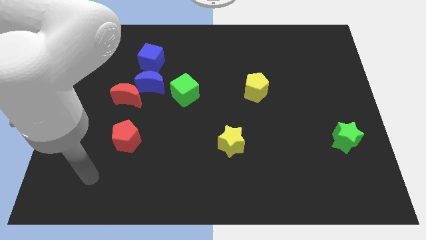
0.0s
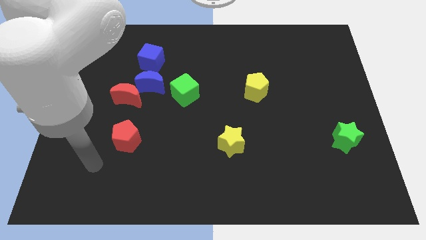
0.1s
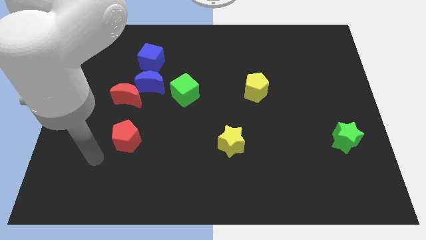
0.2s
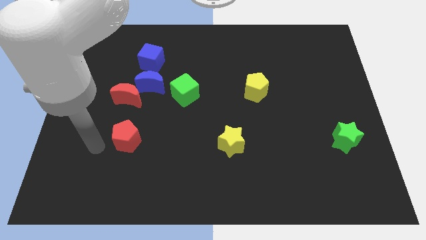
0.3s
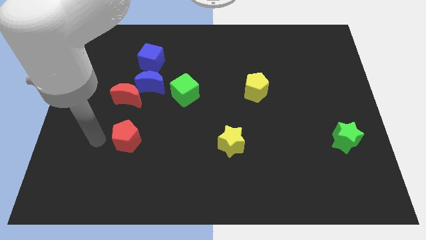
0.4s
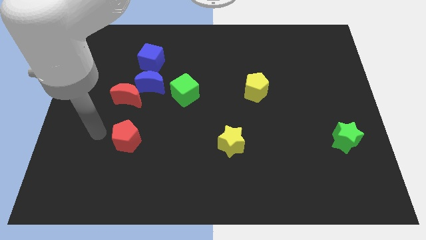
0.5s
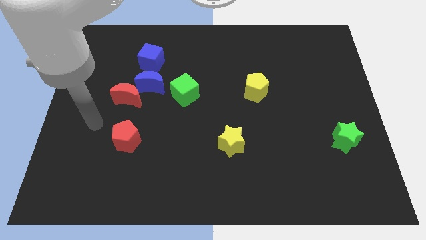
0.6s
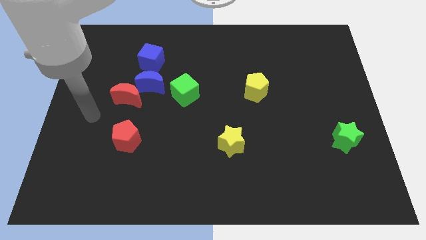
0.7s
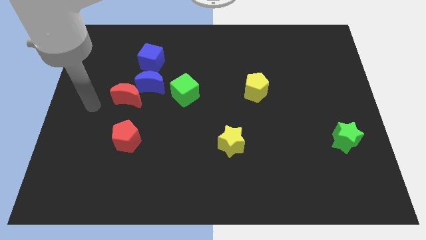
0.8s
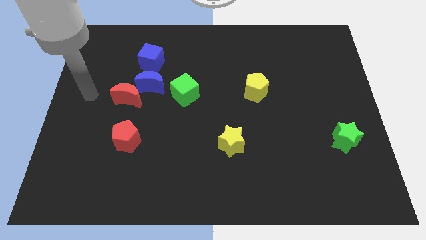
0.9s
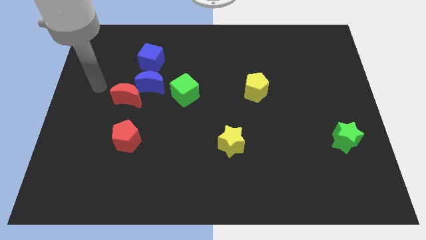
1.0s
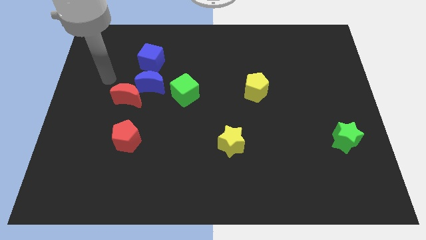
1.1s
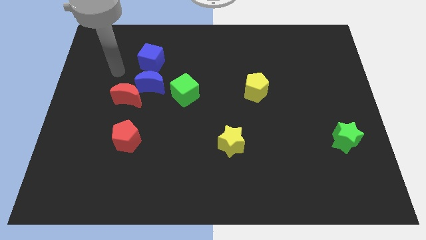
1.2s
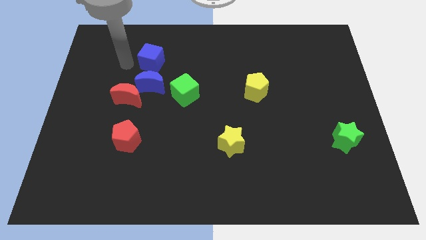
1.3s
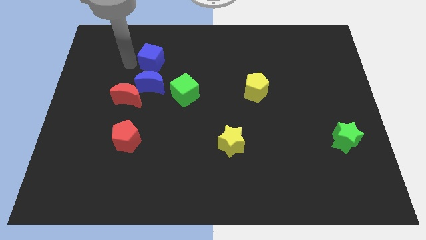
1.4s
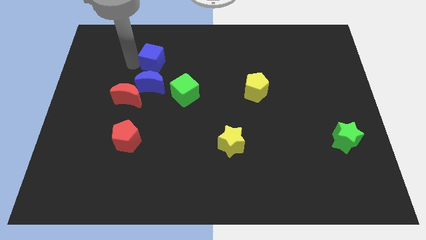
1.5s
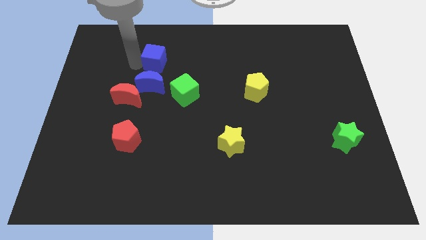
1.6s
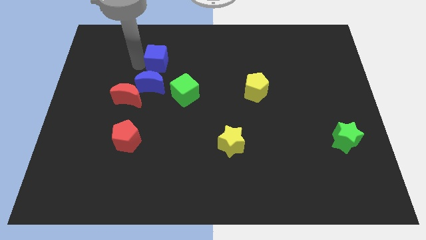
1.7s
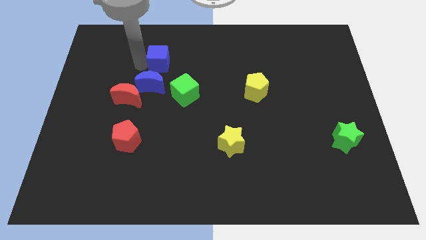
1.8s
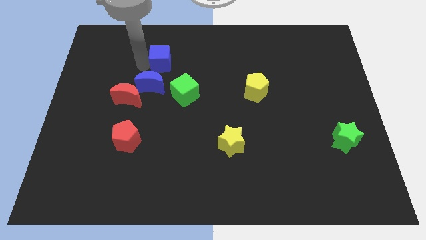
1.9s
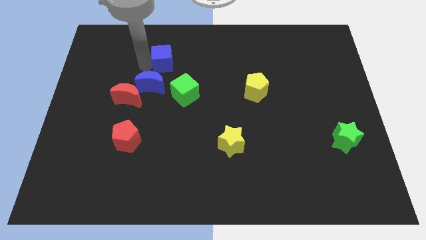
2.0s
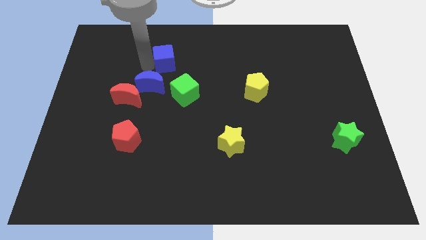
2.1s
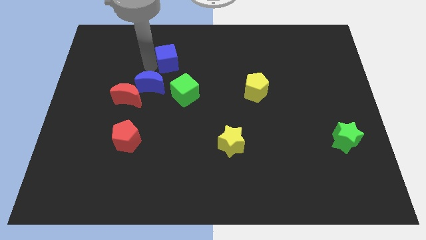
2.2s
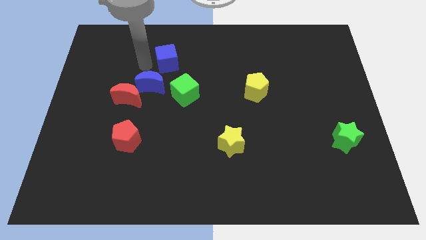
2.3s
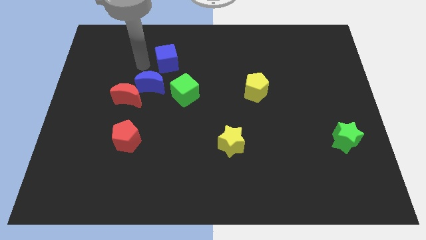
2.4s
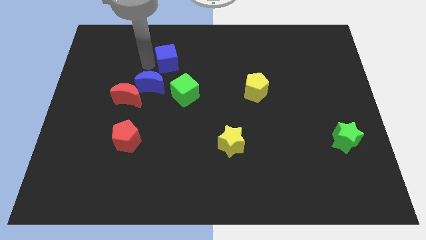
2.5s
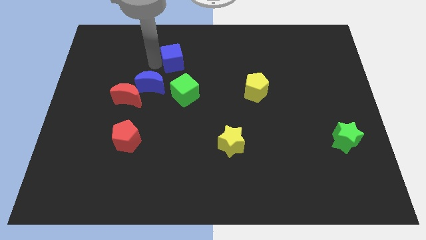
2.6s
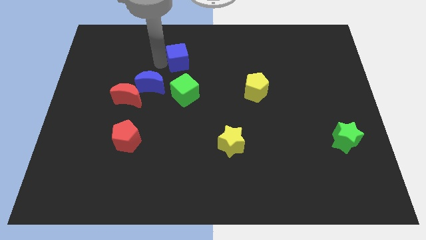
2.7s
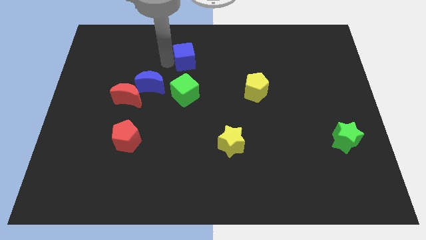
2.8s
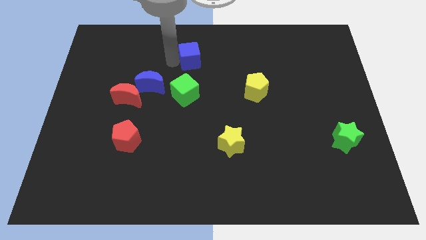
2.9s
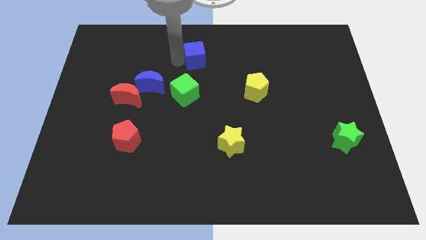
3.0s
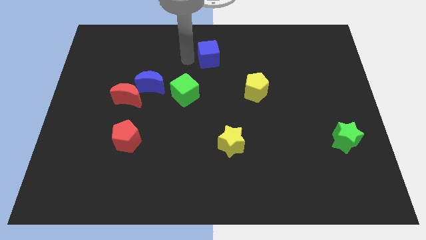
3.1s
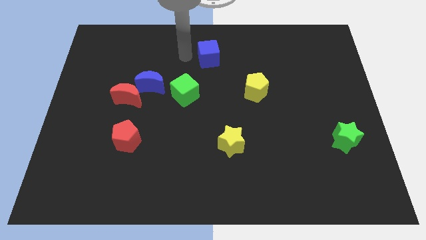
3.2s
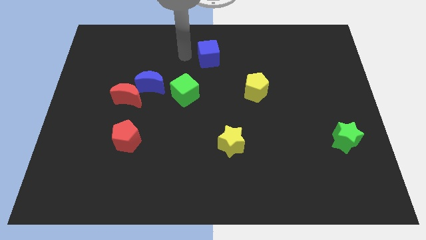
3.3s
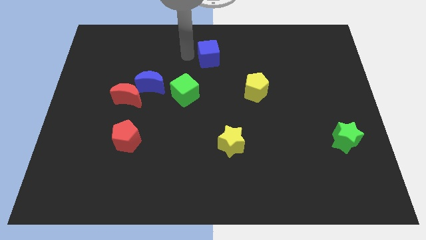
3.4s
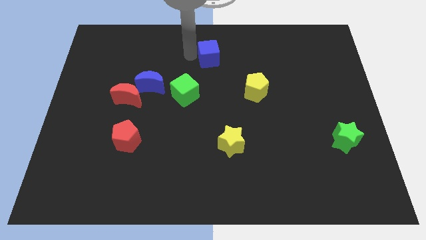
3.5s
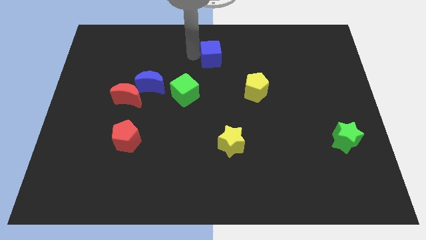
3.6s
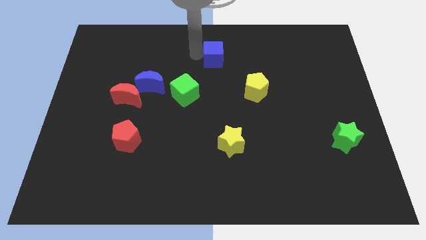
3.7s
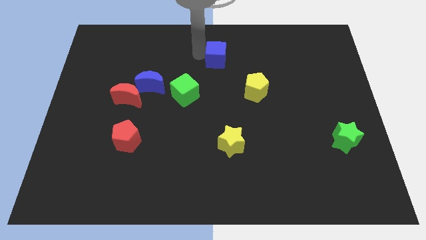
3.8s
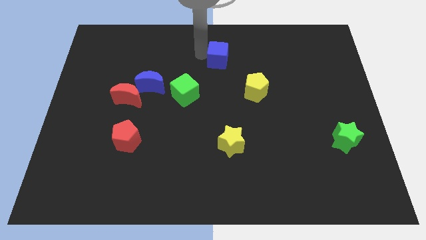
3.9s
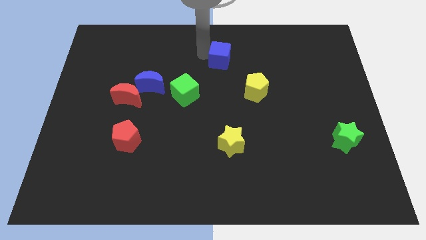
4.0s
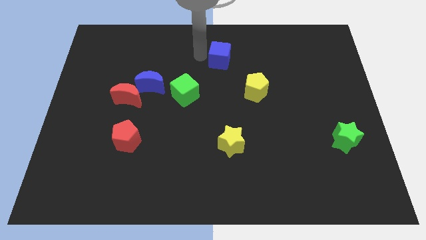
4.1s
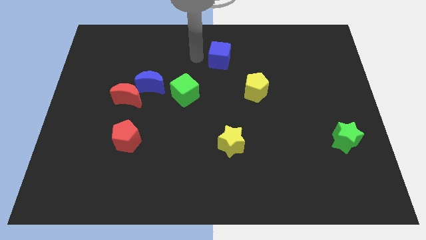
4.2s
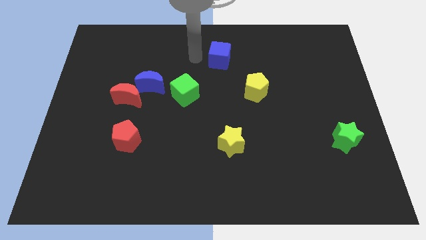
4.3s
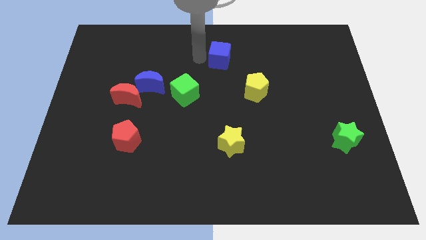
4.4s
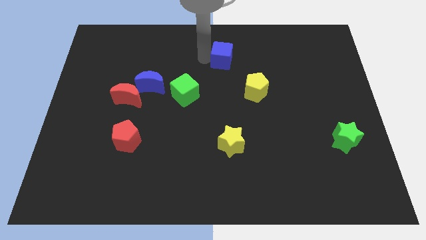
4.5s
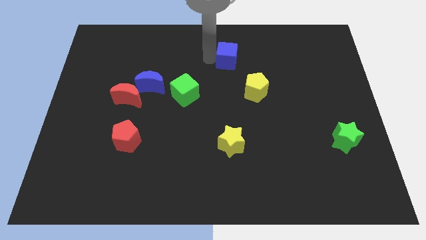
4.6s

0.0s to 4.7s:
push the blue cube to the right

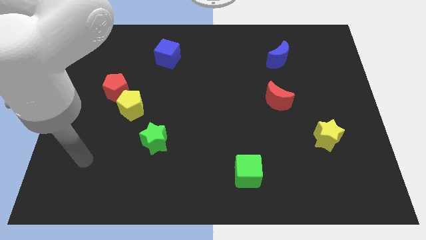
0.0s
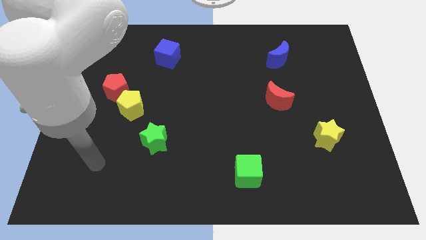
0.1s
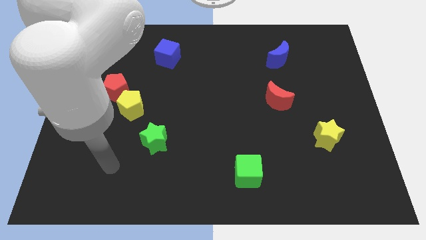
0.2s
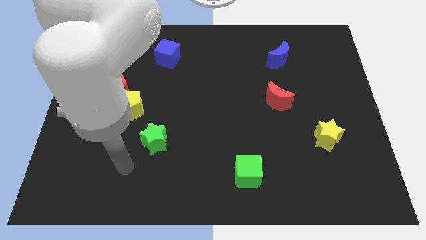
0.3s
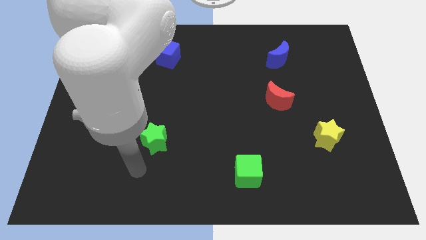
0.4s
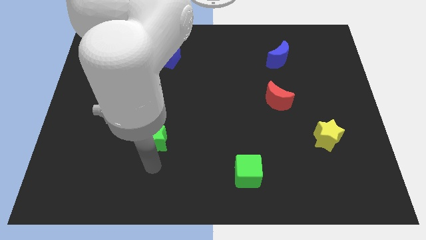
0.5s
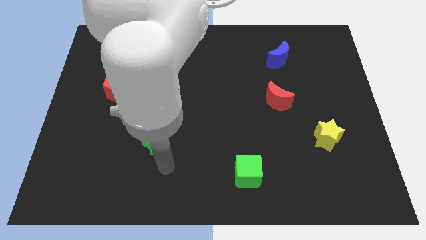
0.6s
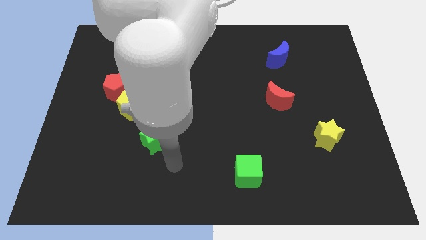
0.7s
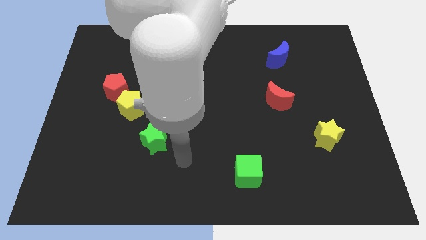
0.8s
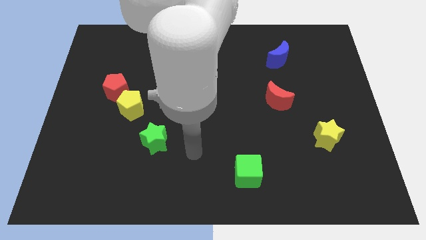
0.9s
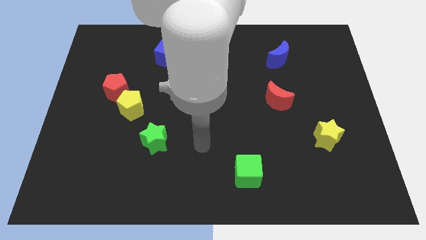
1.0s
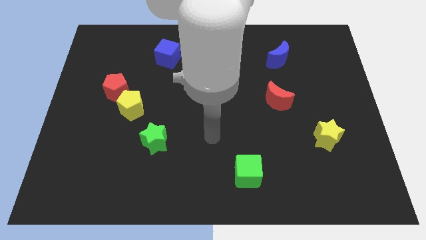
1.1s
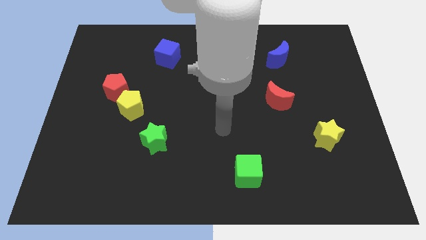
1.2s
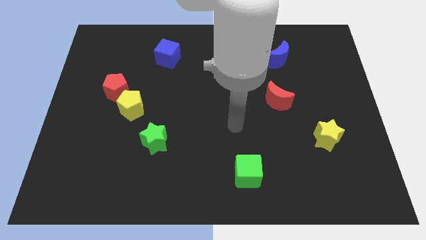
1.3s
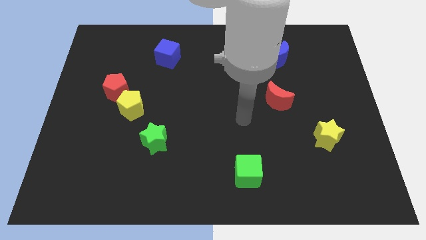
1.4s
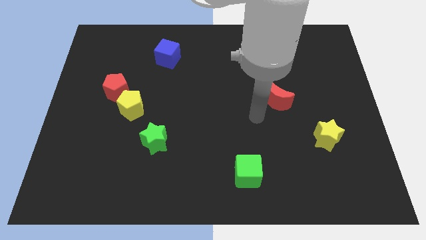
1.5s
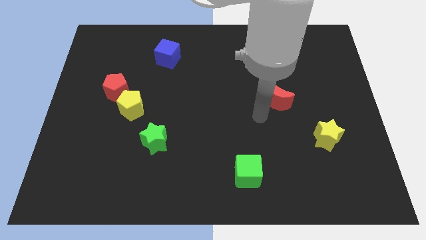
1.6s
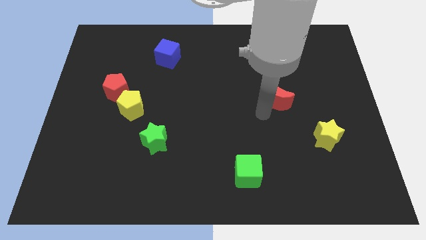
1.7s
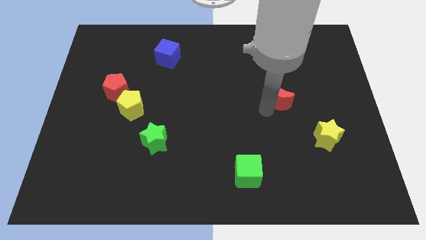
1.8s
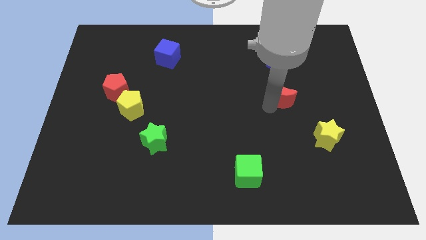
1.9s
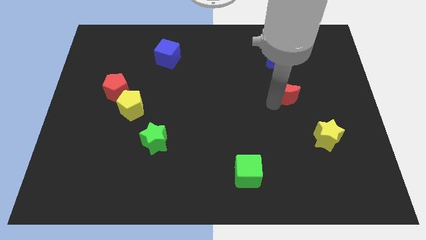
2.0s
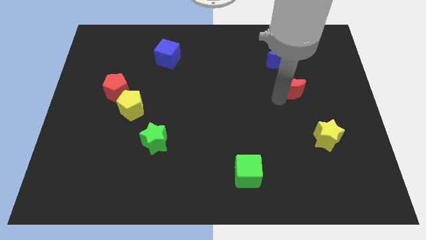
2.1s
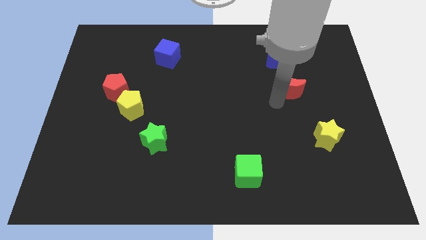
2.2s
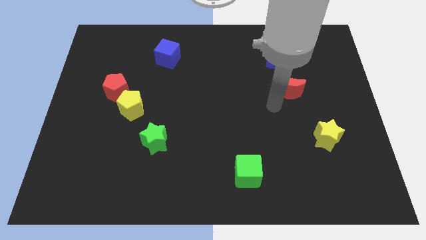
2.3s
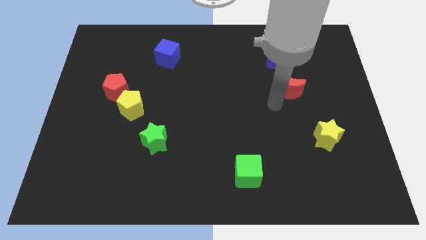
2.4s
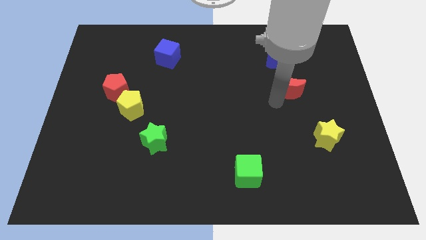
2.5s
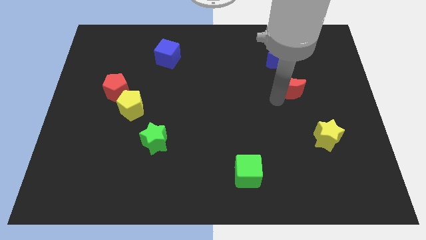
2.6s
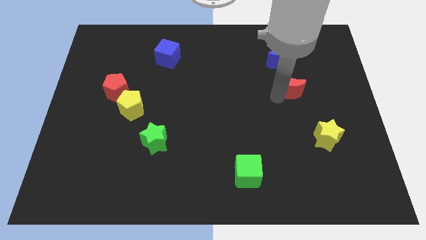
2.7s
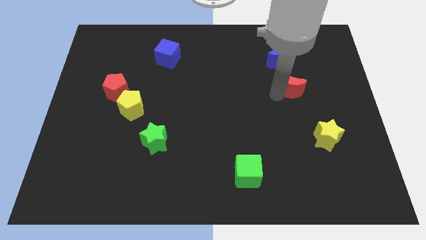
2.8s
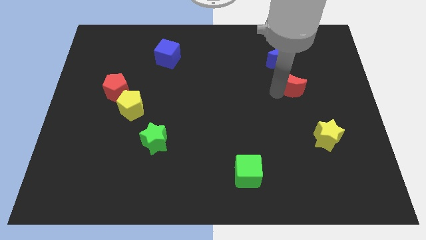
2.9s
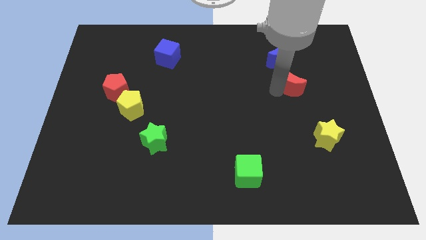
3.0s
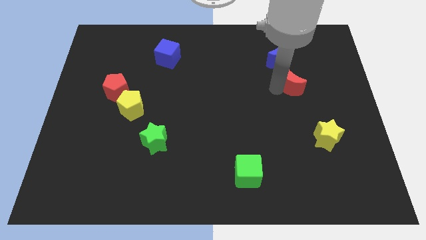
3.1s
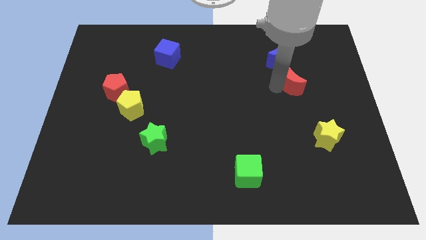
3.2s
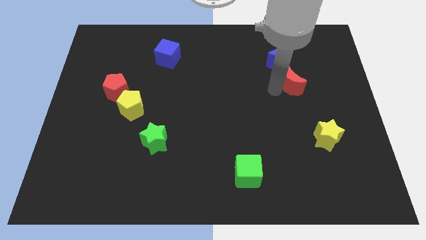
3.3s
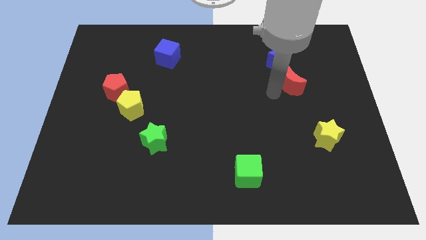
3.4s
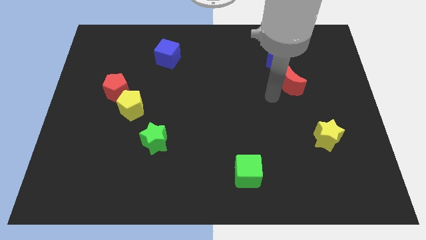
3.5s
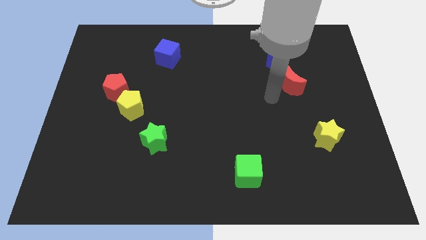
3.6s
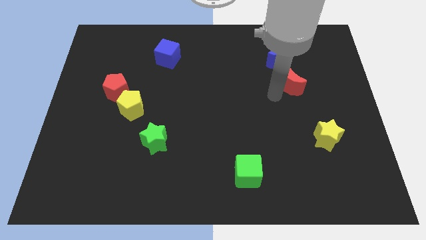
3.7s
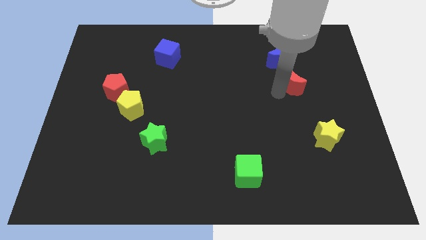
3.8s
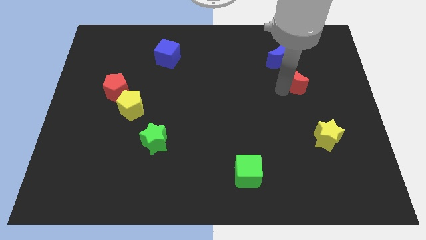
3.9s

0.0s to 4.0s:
push the red moon upwards and to the right a little
